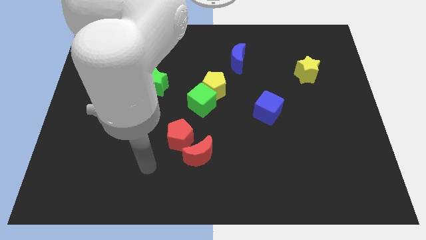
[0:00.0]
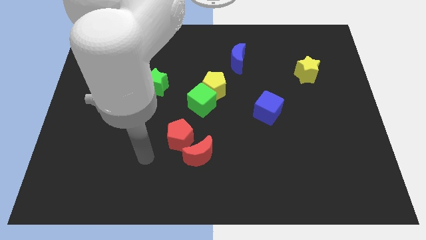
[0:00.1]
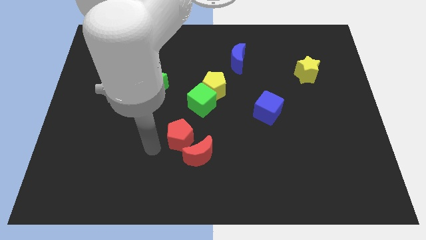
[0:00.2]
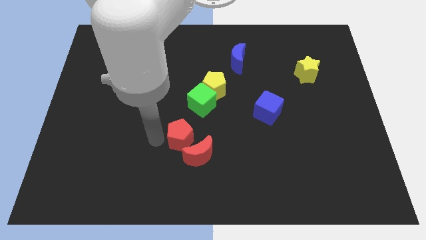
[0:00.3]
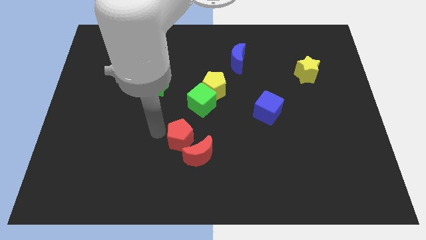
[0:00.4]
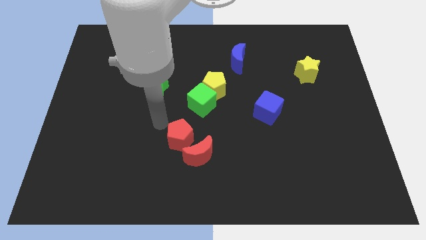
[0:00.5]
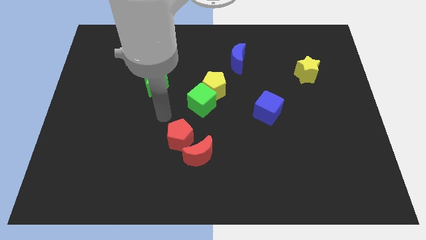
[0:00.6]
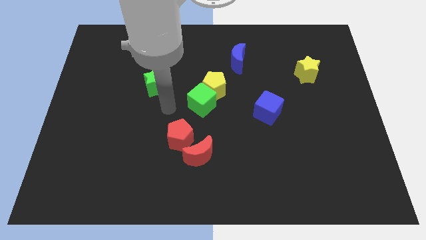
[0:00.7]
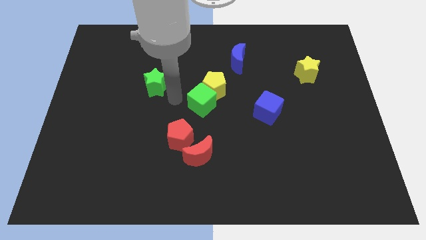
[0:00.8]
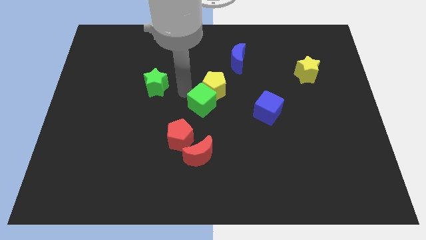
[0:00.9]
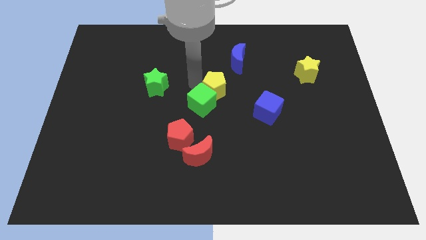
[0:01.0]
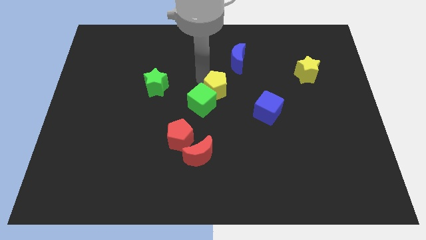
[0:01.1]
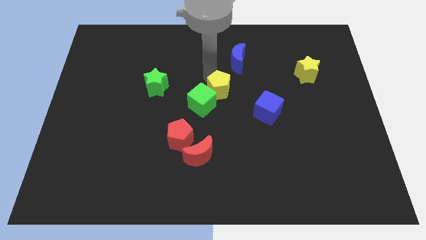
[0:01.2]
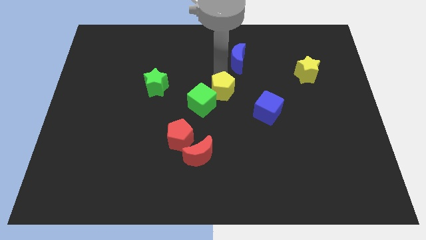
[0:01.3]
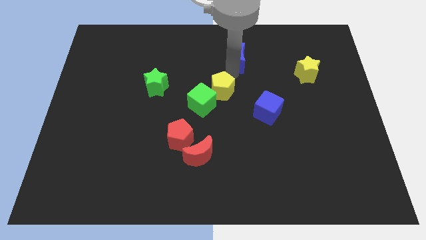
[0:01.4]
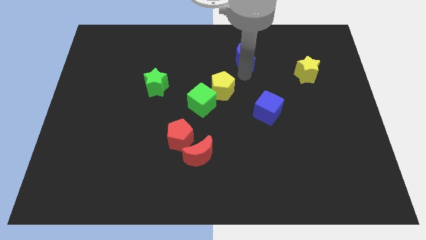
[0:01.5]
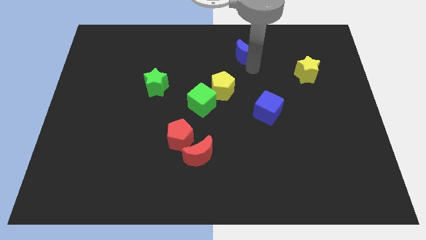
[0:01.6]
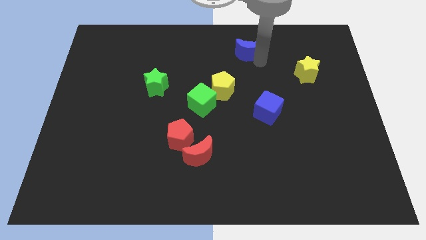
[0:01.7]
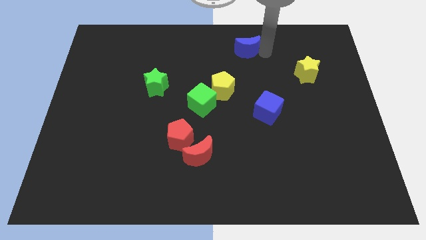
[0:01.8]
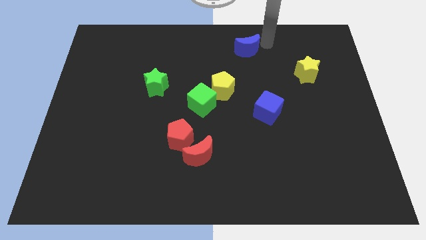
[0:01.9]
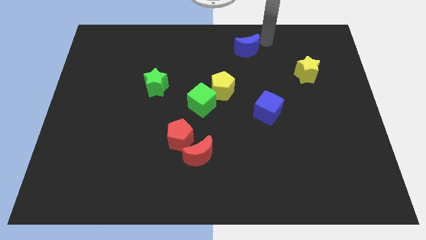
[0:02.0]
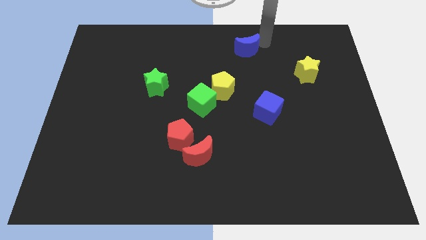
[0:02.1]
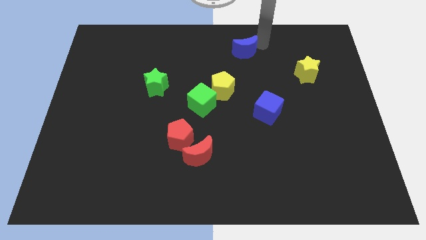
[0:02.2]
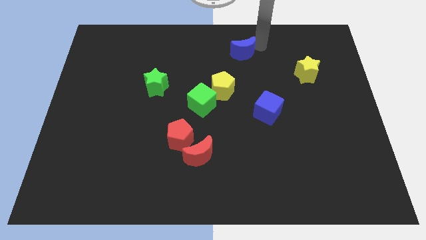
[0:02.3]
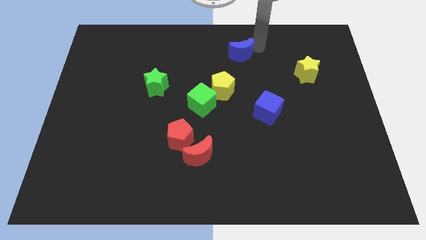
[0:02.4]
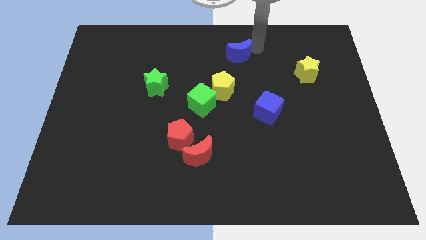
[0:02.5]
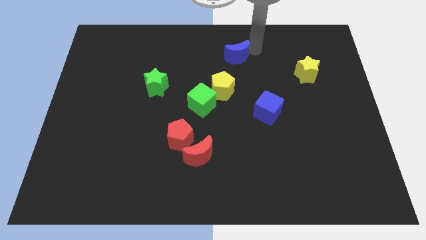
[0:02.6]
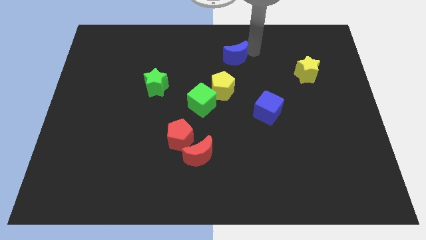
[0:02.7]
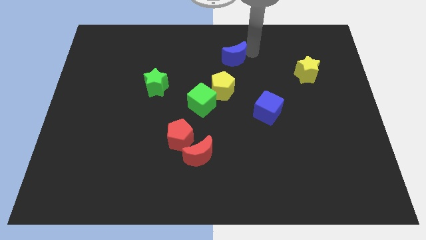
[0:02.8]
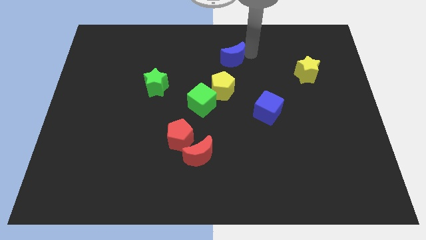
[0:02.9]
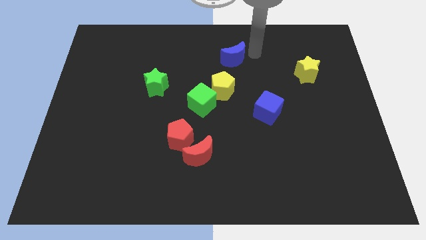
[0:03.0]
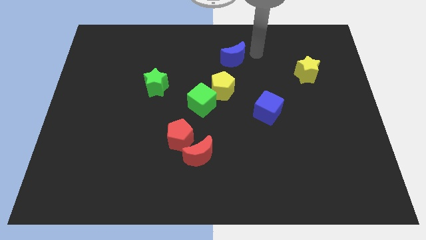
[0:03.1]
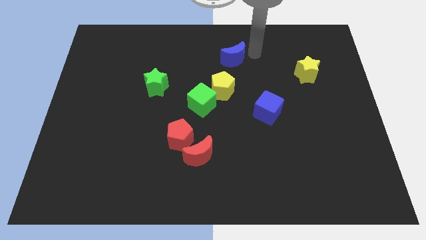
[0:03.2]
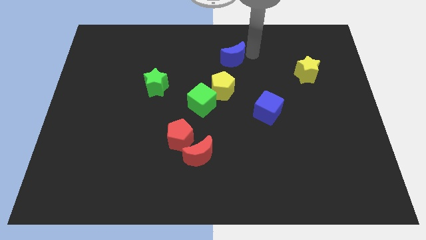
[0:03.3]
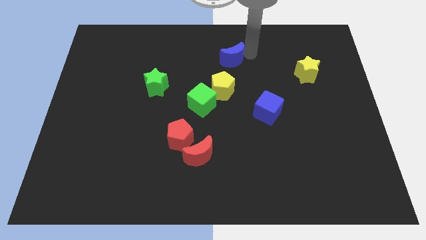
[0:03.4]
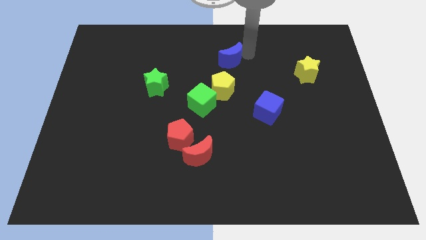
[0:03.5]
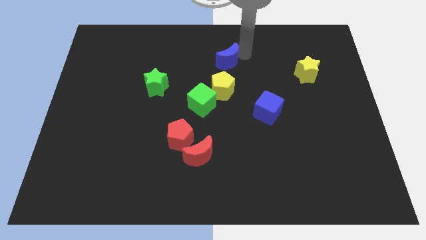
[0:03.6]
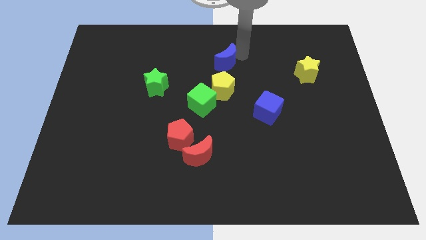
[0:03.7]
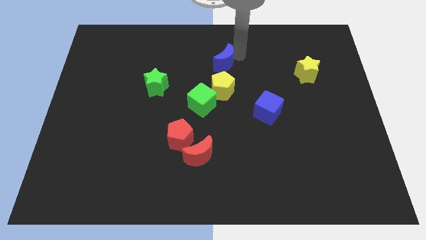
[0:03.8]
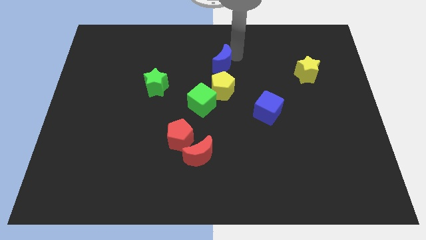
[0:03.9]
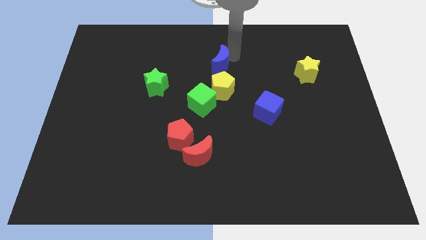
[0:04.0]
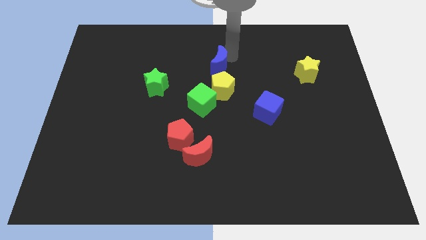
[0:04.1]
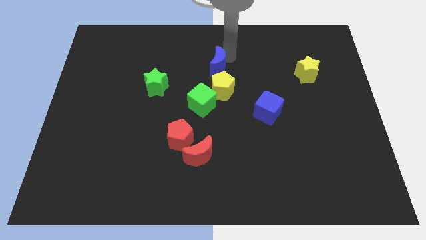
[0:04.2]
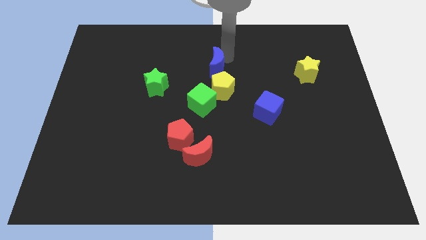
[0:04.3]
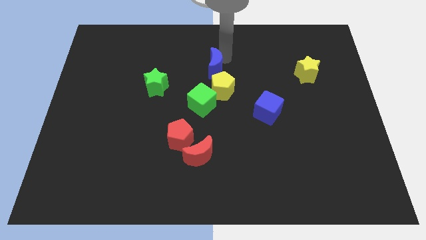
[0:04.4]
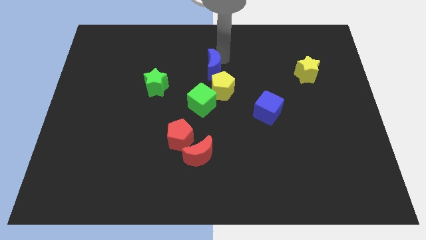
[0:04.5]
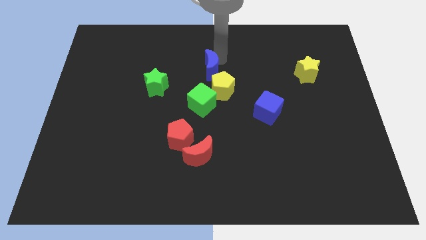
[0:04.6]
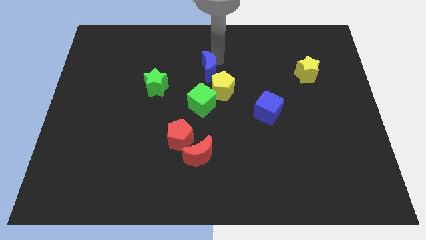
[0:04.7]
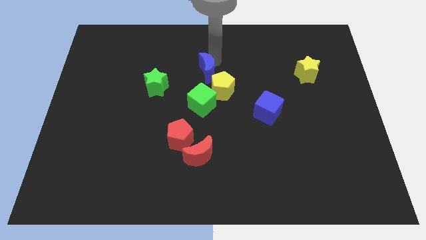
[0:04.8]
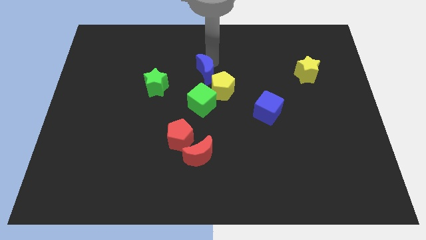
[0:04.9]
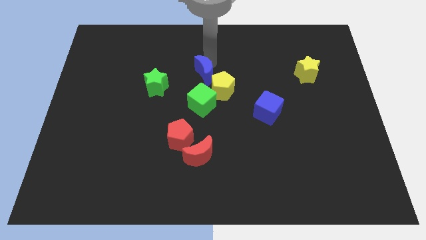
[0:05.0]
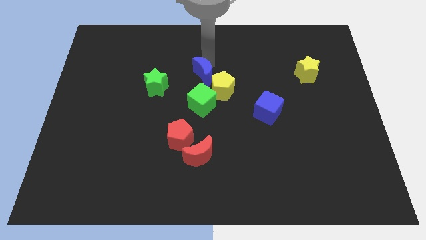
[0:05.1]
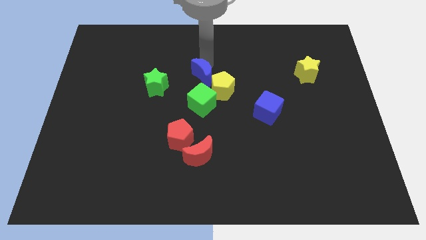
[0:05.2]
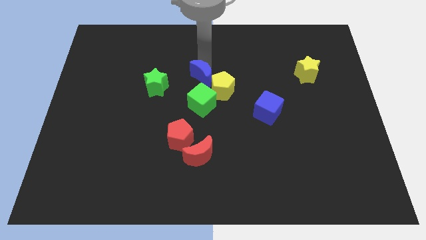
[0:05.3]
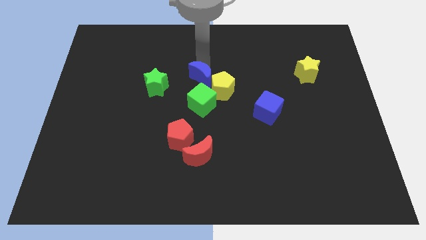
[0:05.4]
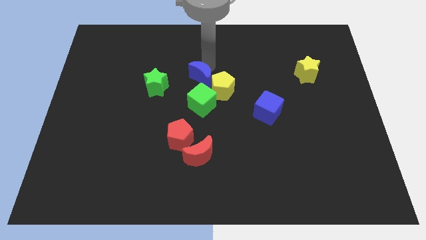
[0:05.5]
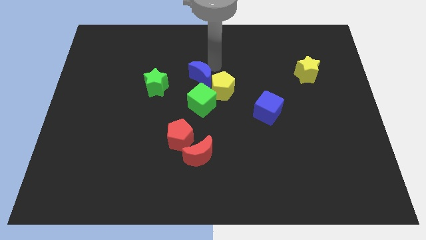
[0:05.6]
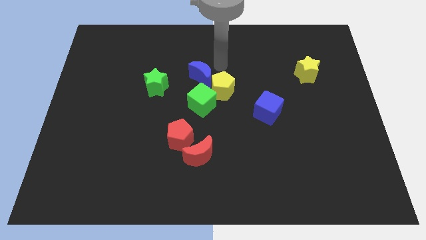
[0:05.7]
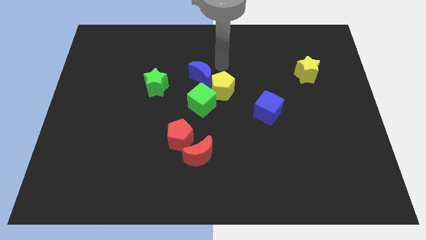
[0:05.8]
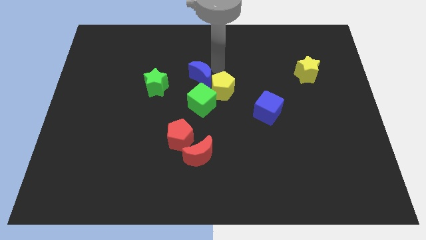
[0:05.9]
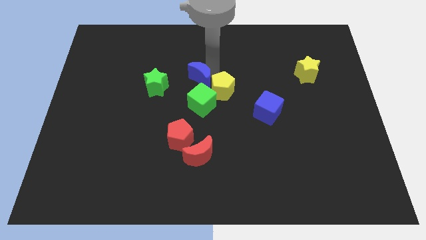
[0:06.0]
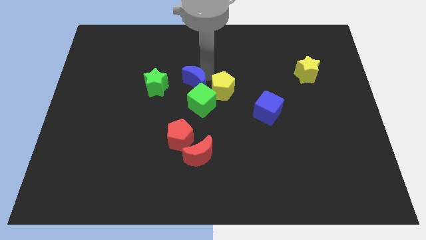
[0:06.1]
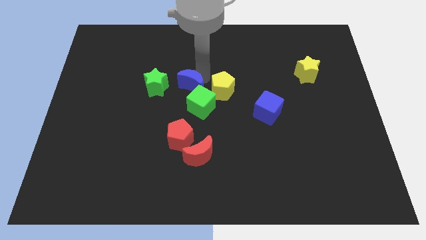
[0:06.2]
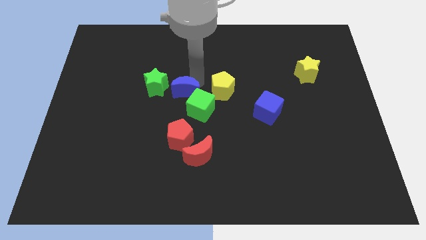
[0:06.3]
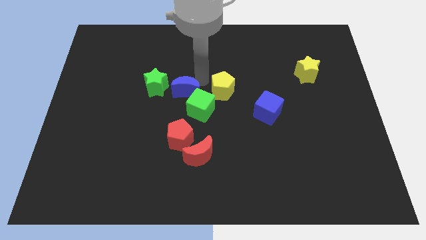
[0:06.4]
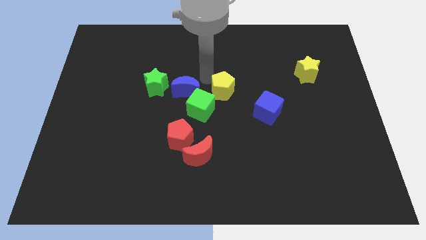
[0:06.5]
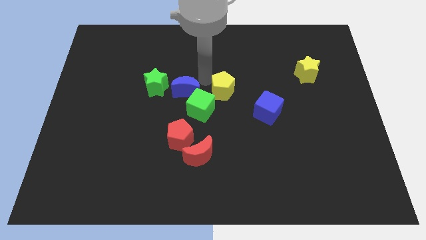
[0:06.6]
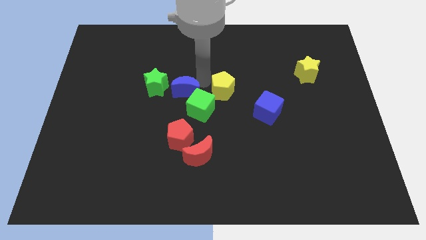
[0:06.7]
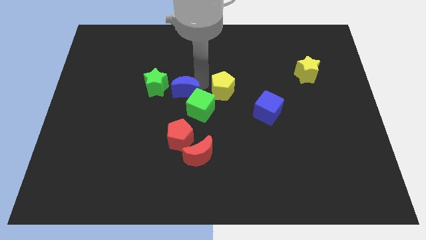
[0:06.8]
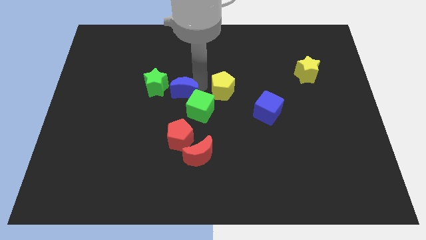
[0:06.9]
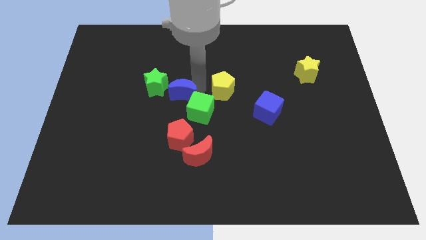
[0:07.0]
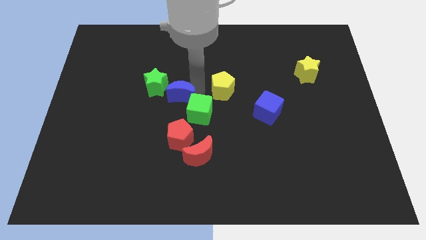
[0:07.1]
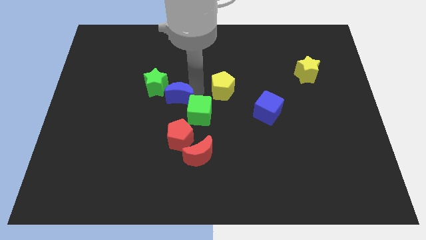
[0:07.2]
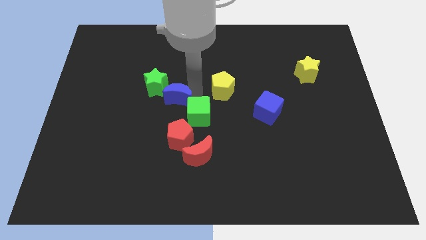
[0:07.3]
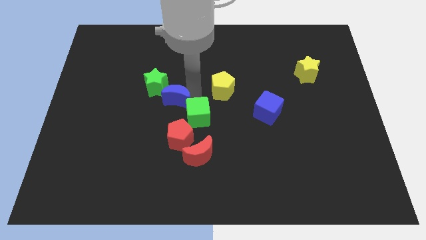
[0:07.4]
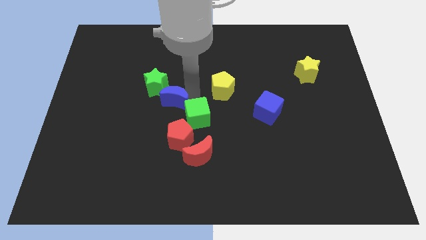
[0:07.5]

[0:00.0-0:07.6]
move the blue moon down and to the left diagonally

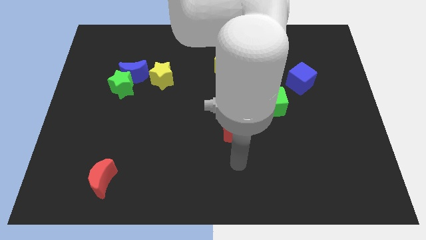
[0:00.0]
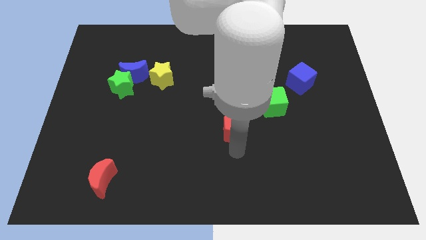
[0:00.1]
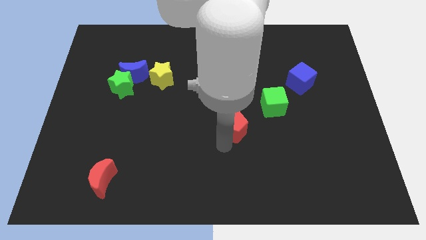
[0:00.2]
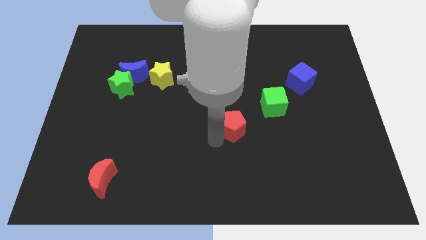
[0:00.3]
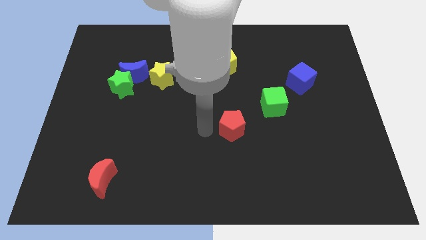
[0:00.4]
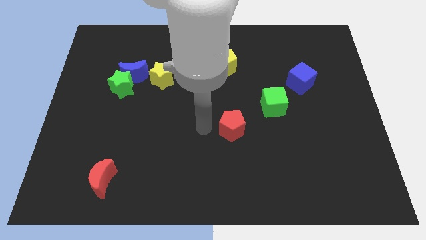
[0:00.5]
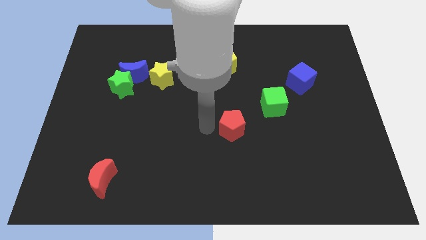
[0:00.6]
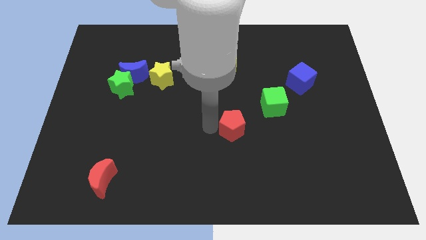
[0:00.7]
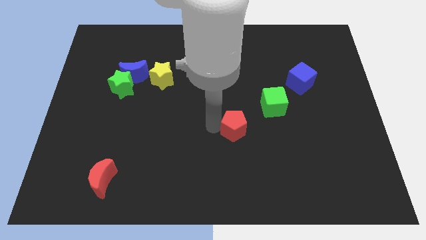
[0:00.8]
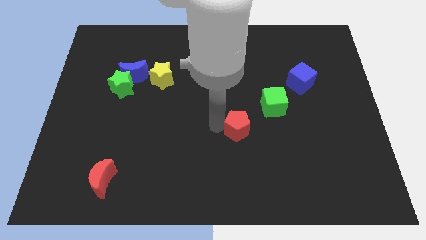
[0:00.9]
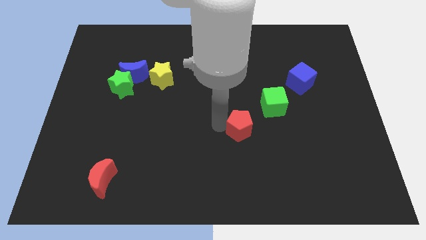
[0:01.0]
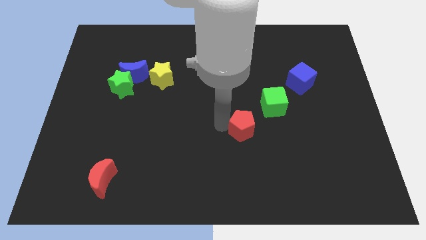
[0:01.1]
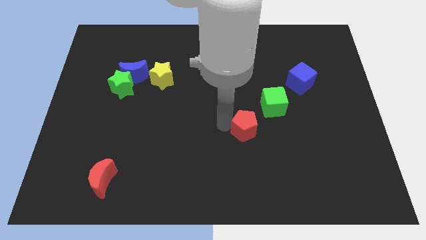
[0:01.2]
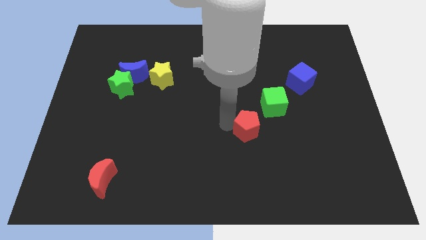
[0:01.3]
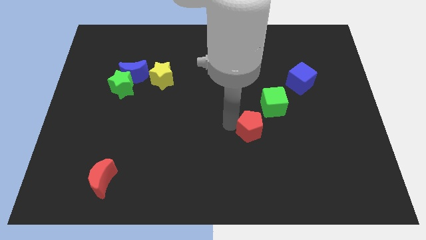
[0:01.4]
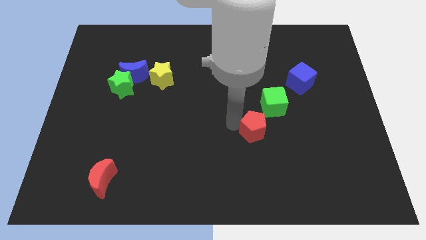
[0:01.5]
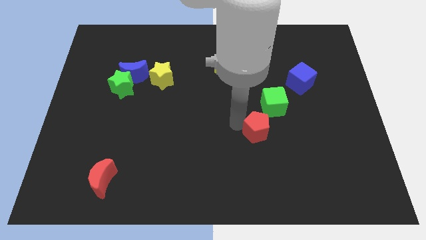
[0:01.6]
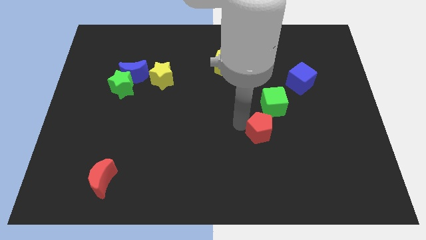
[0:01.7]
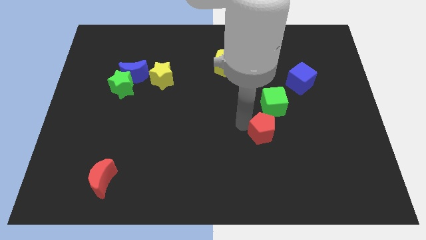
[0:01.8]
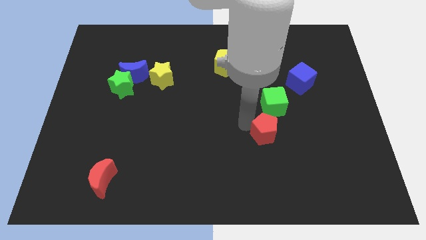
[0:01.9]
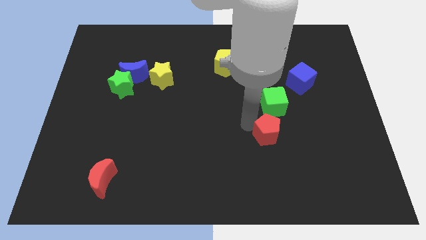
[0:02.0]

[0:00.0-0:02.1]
push the red pentagon right somewhat
